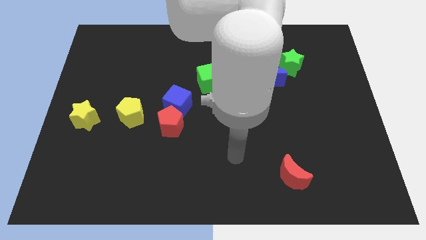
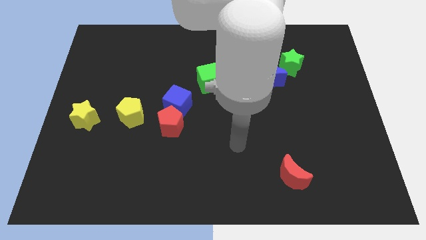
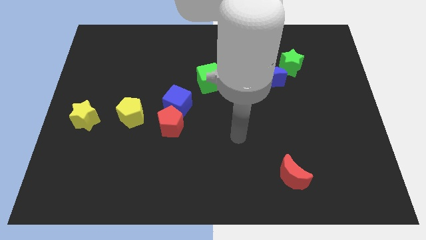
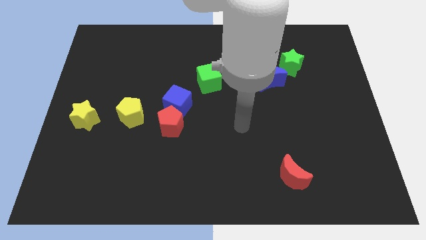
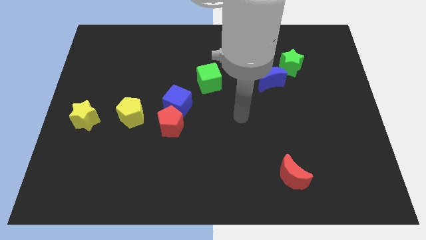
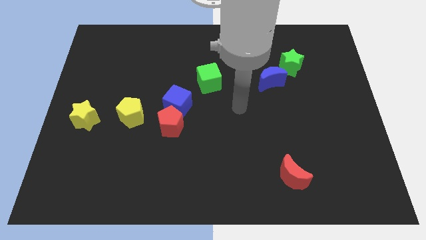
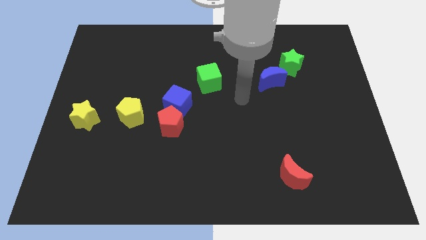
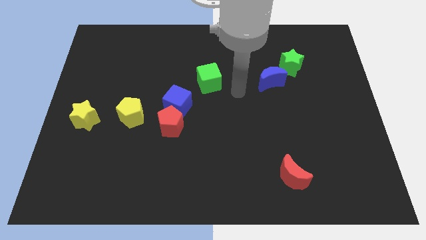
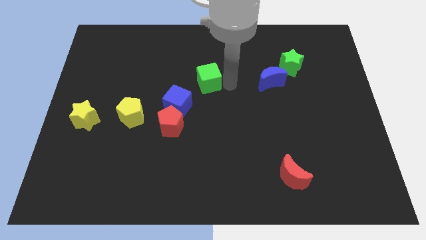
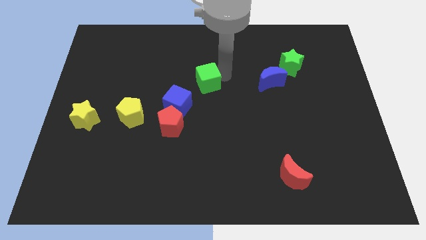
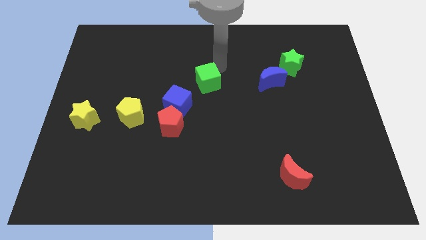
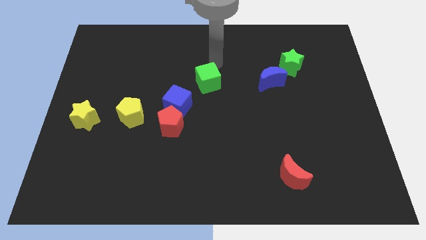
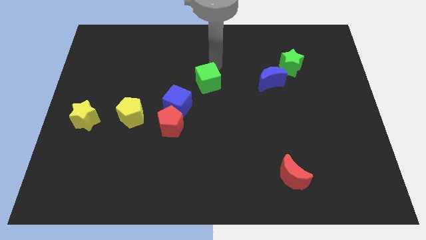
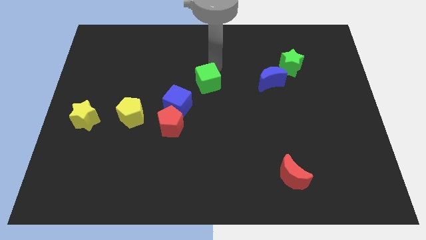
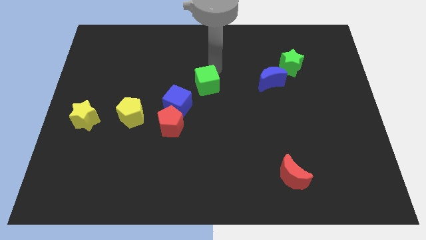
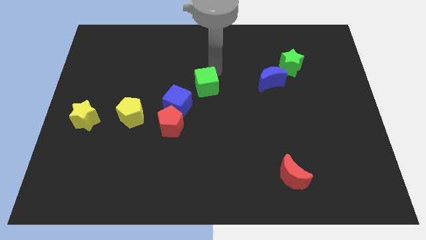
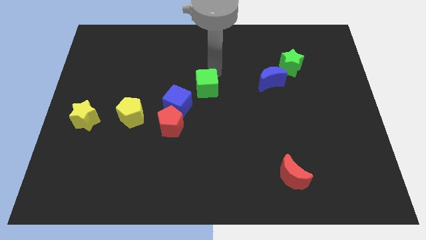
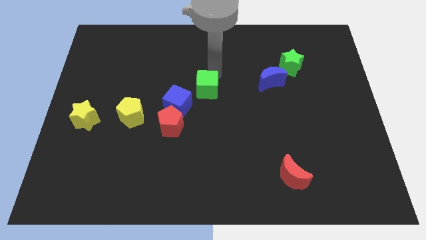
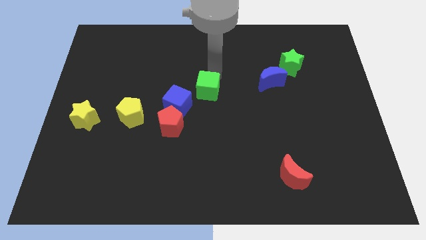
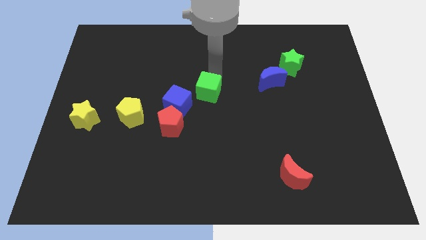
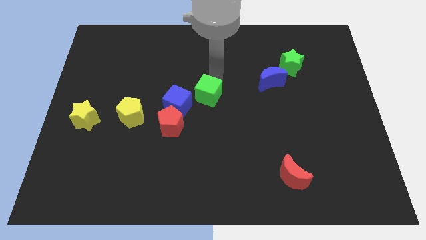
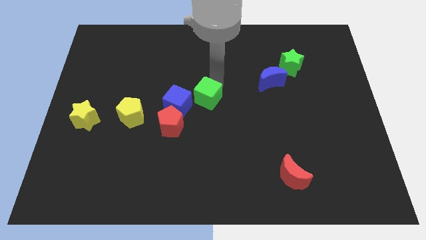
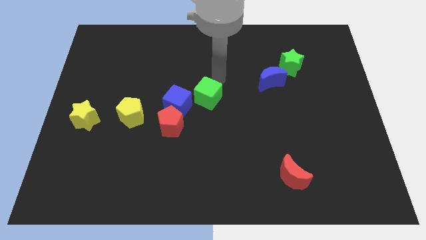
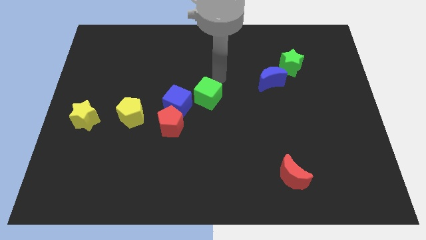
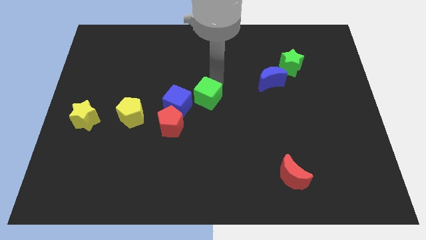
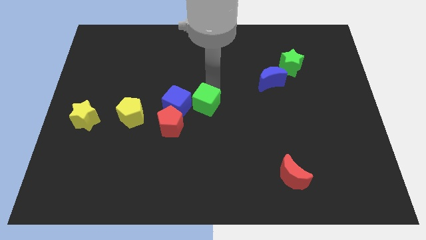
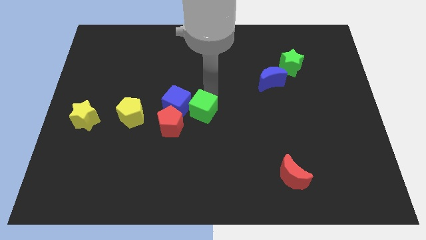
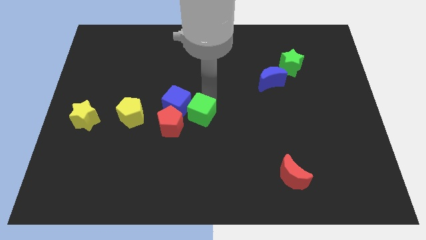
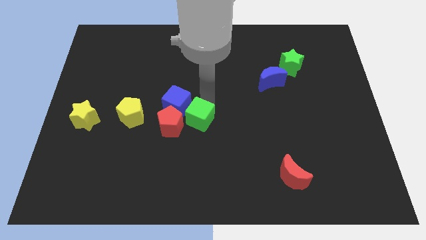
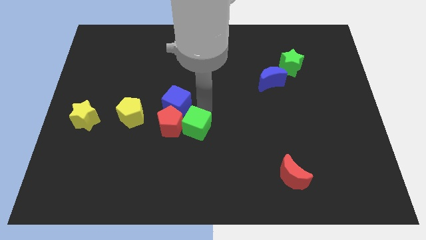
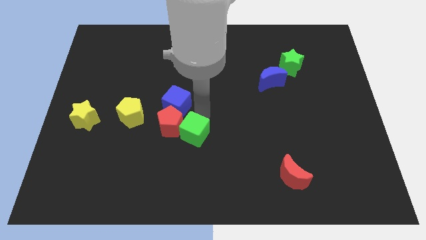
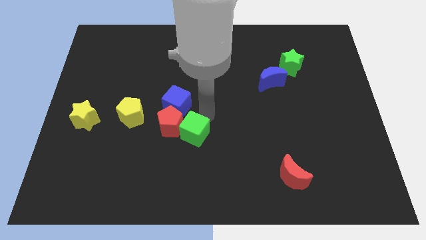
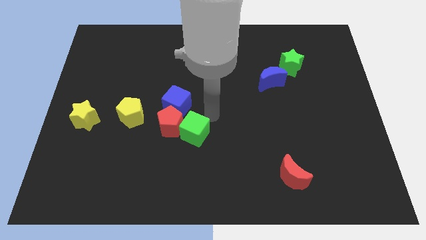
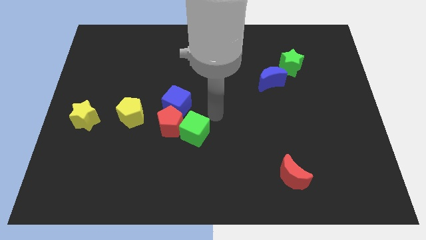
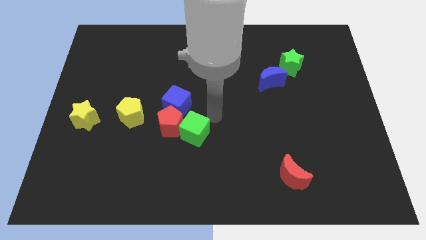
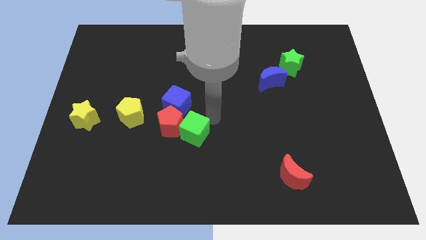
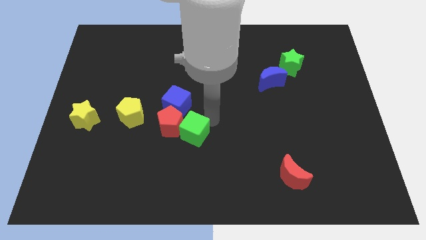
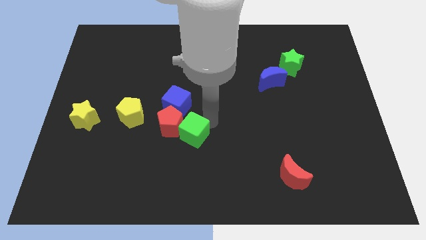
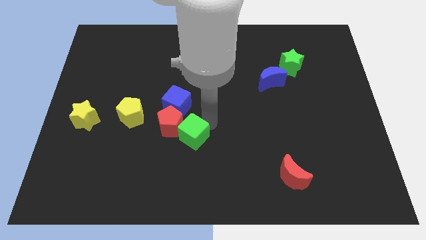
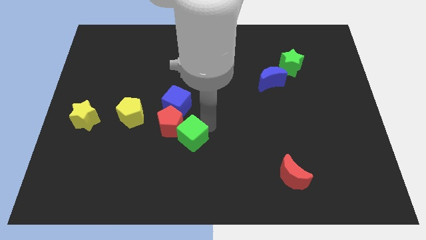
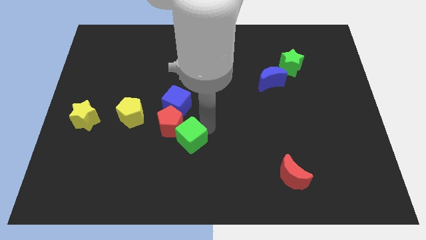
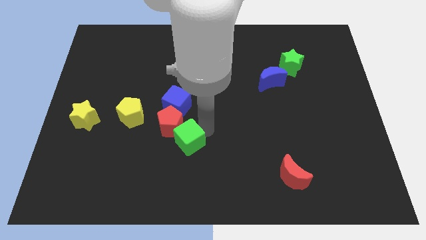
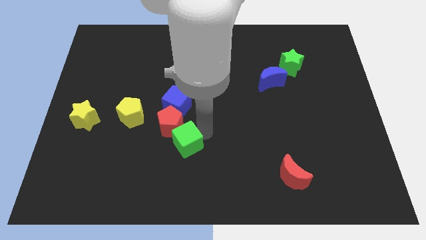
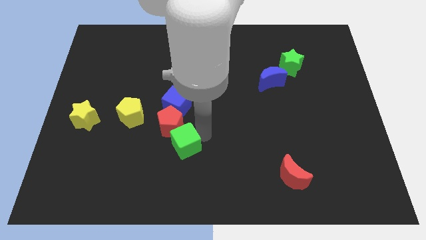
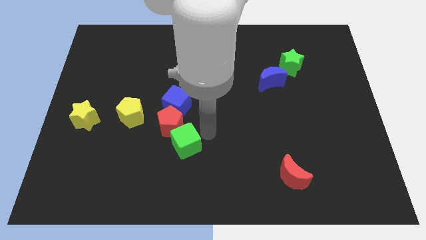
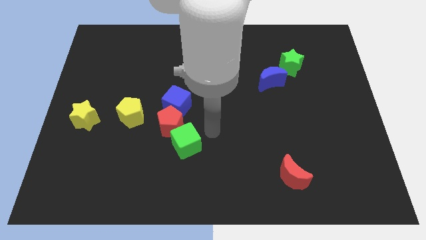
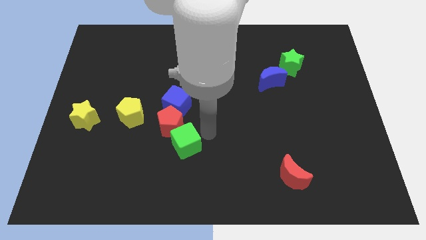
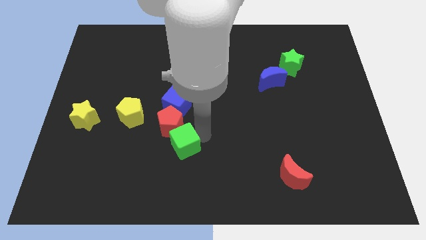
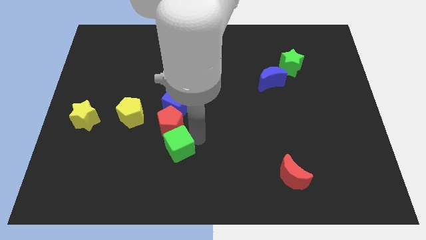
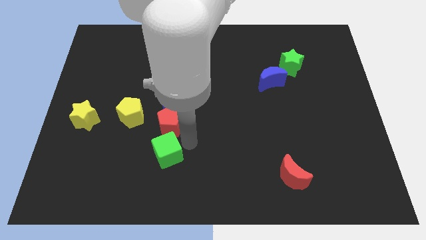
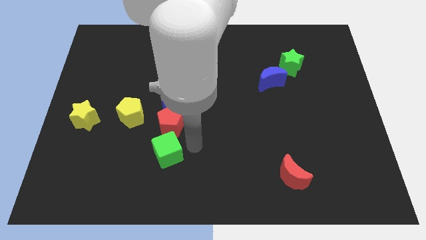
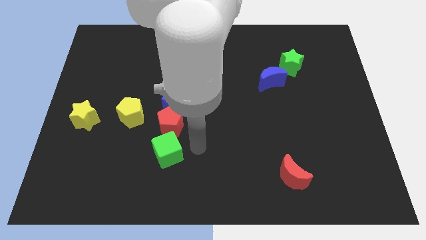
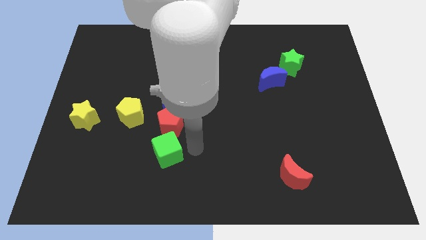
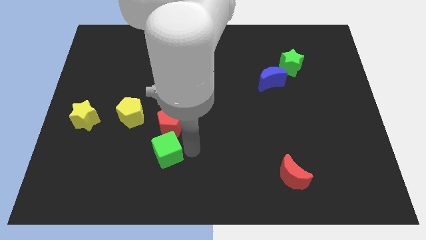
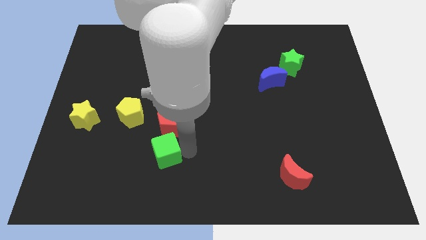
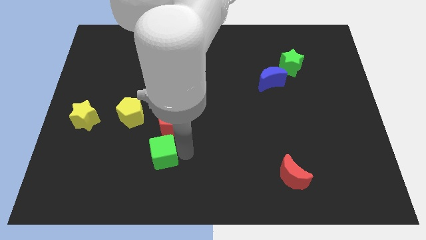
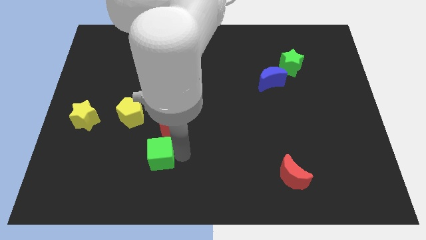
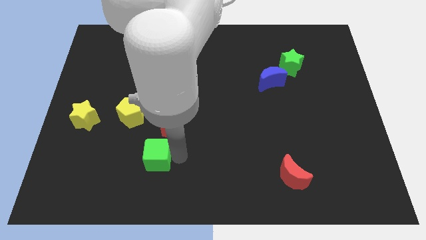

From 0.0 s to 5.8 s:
push the green cube down and to the left diagonally

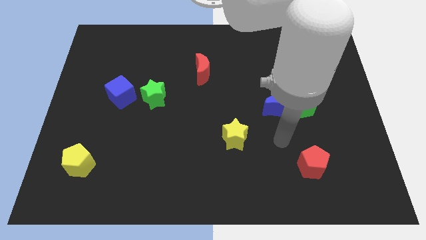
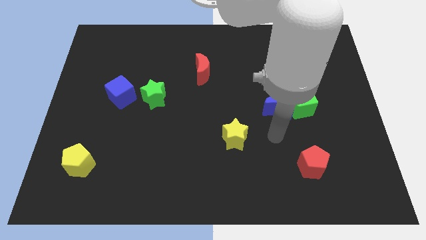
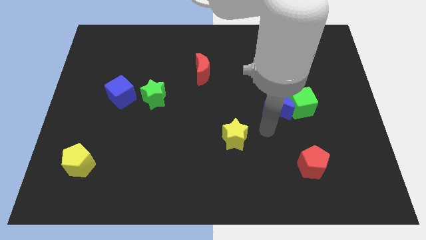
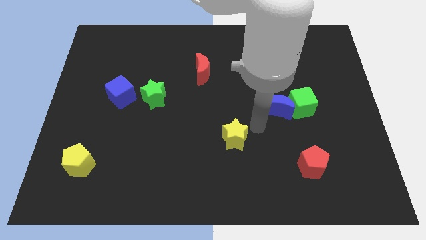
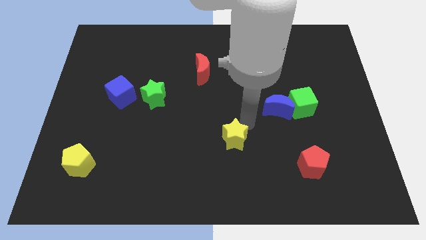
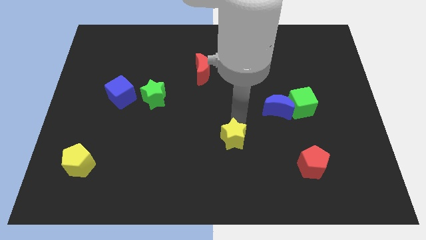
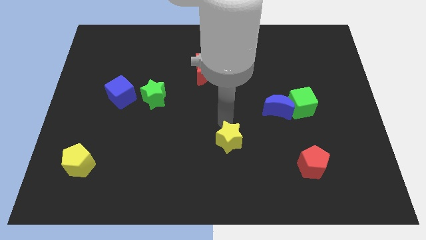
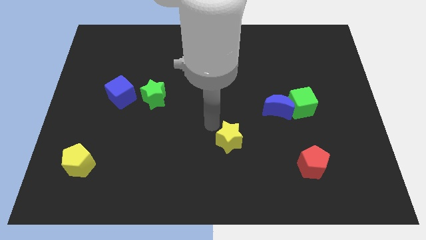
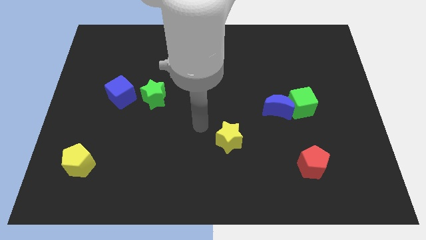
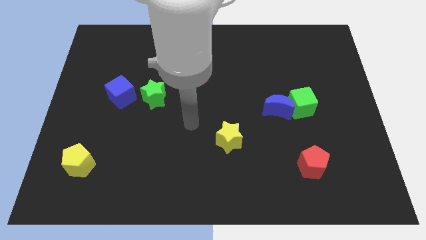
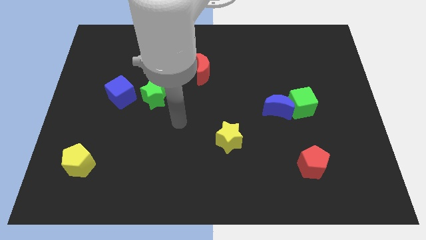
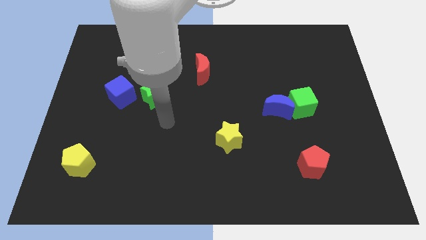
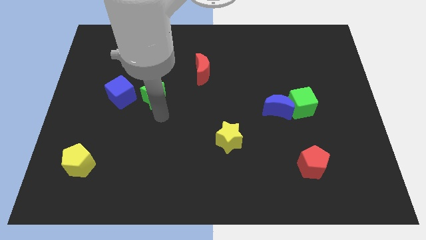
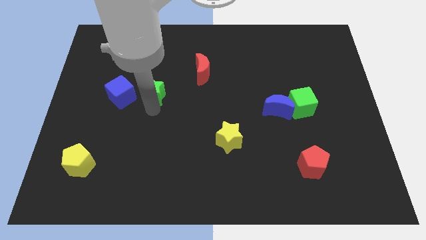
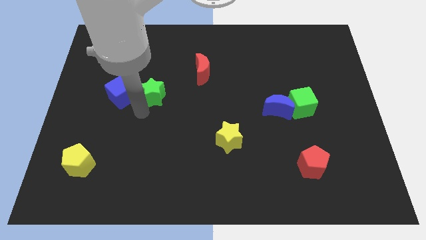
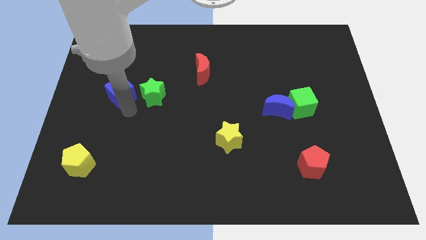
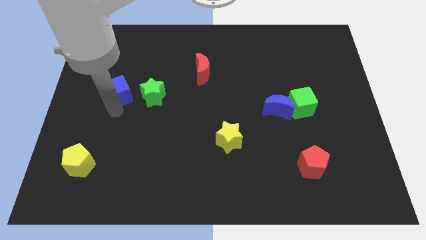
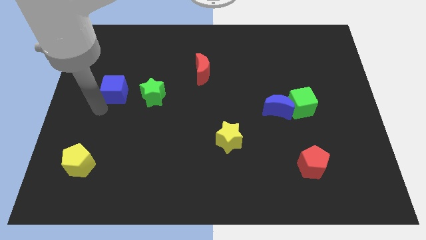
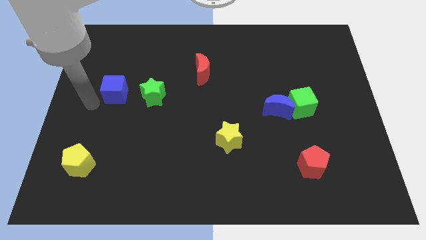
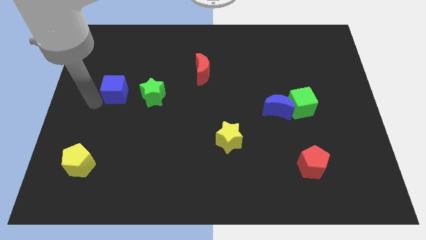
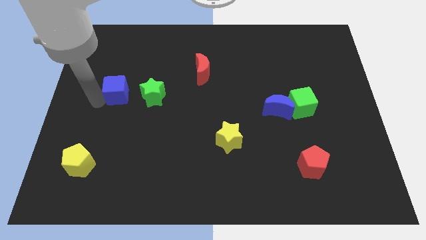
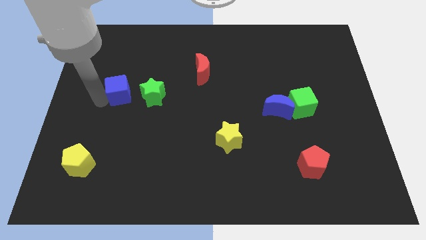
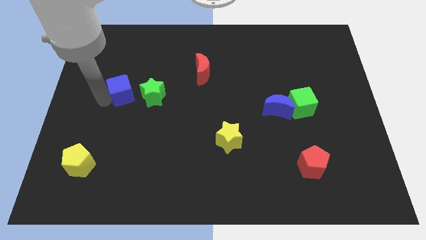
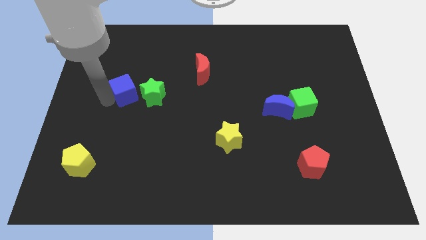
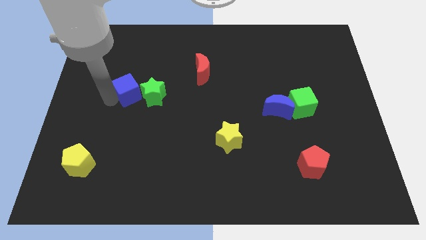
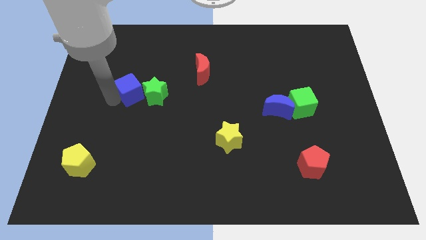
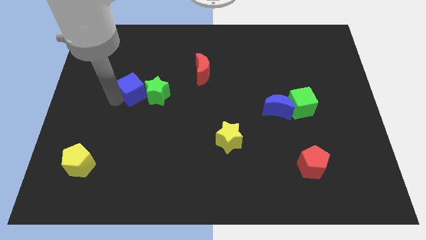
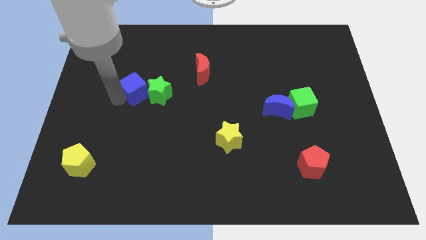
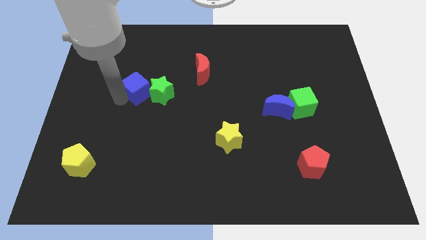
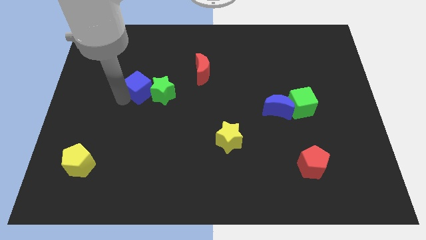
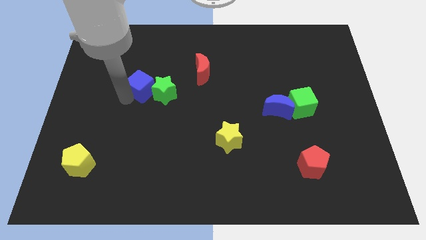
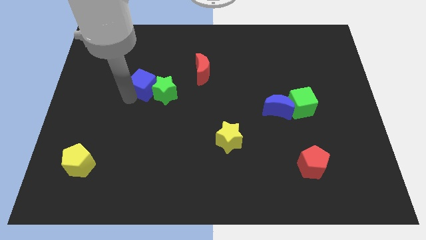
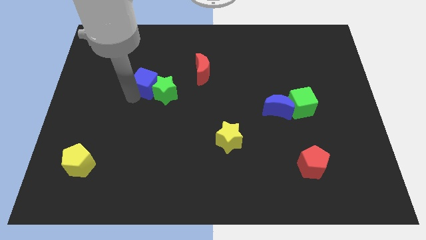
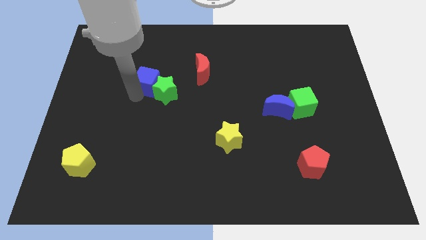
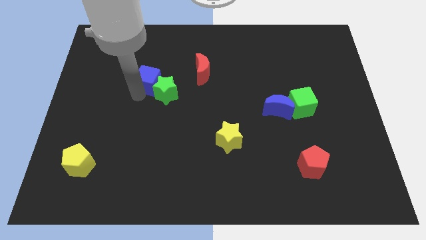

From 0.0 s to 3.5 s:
push the blue cube up and right a little
